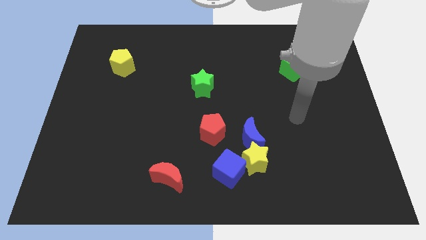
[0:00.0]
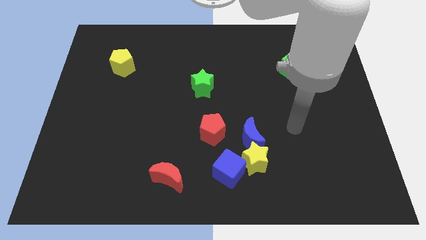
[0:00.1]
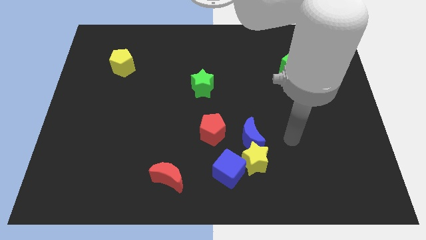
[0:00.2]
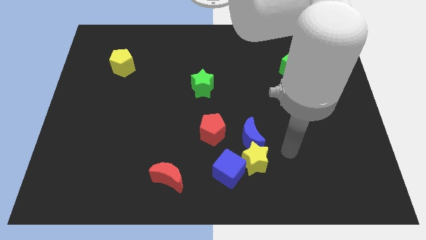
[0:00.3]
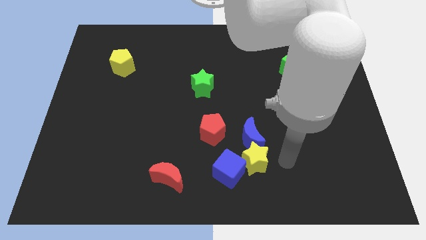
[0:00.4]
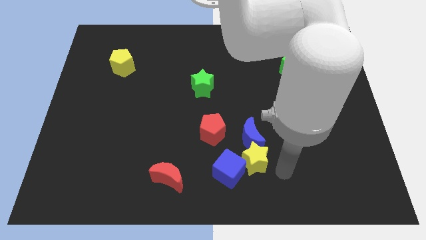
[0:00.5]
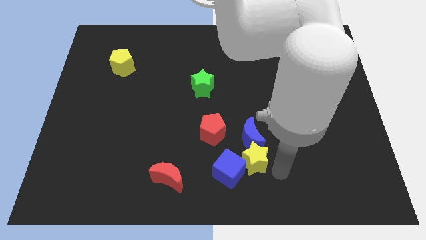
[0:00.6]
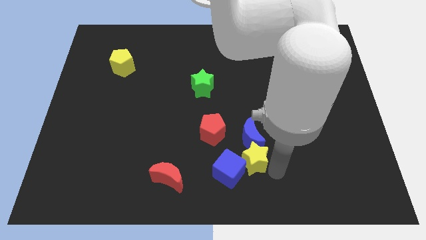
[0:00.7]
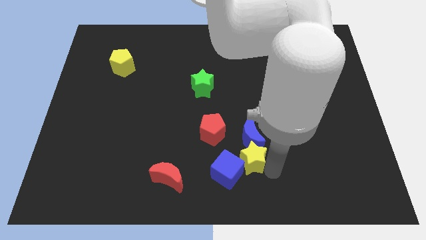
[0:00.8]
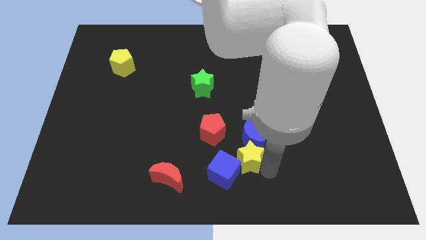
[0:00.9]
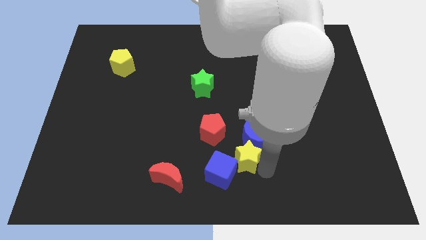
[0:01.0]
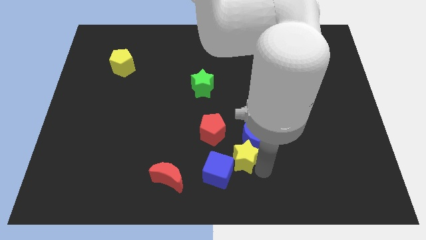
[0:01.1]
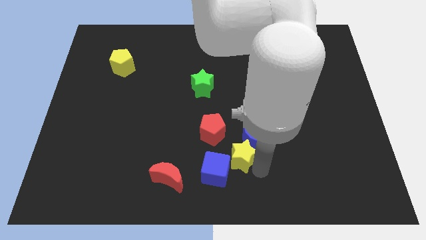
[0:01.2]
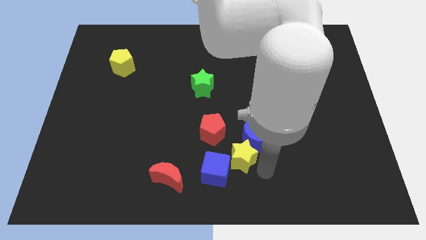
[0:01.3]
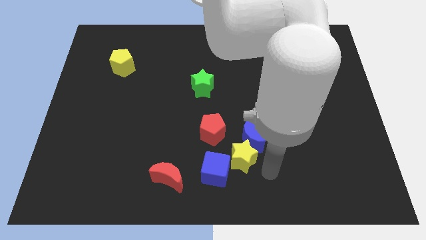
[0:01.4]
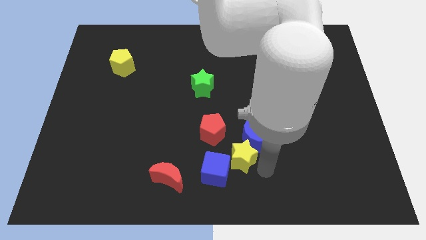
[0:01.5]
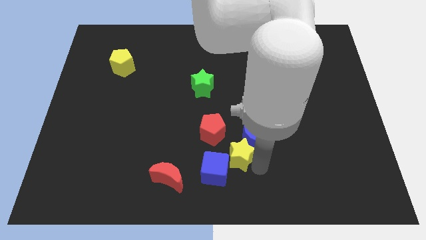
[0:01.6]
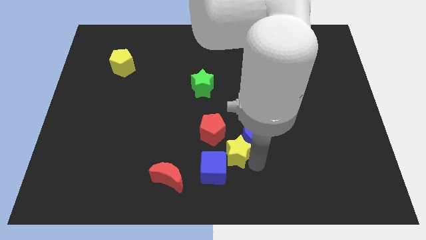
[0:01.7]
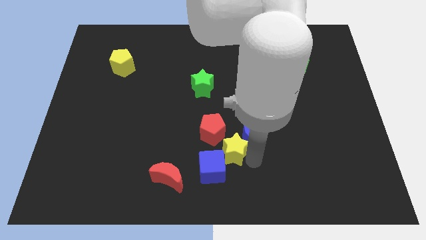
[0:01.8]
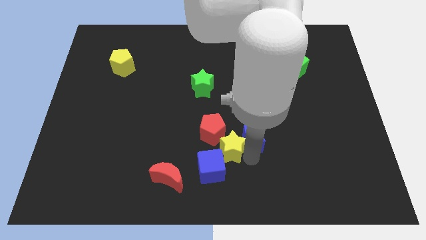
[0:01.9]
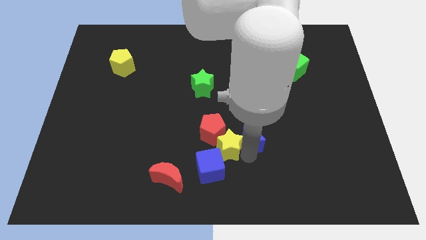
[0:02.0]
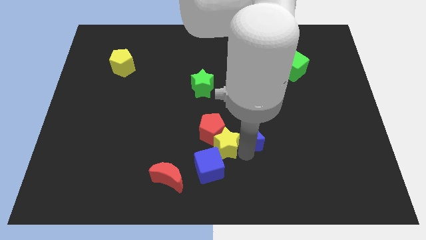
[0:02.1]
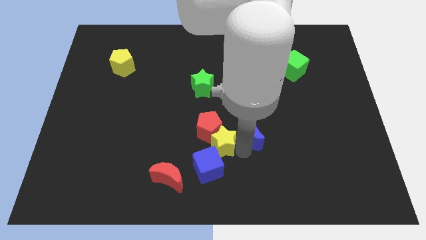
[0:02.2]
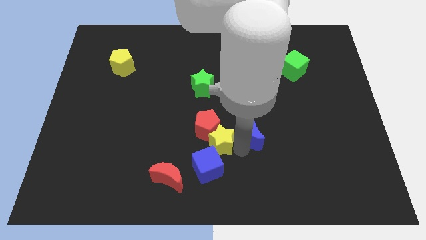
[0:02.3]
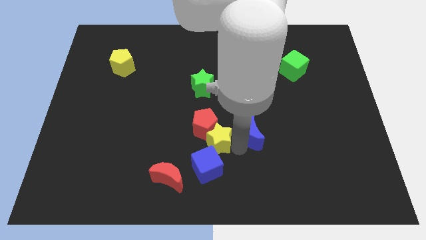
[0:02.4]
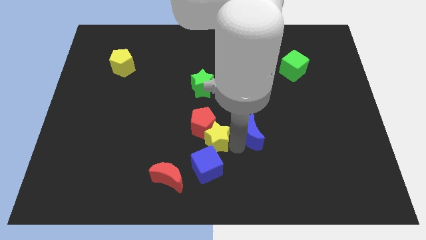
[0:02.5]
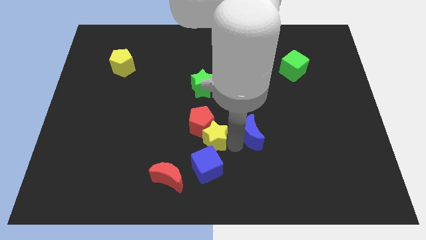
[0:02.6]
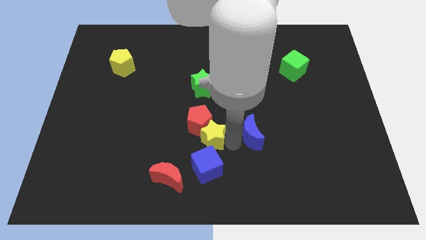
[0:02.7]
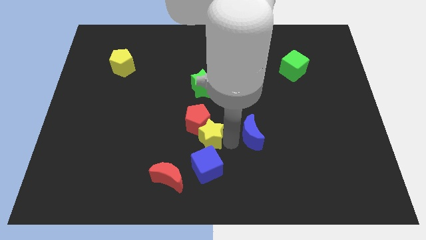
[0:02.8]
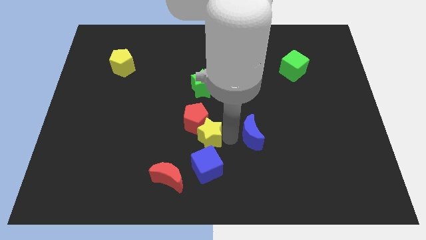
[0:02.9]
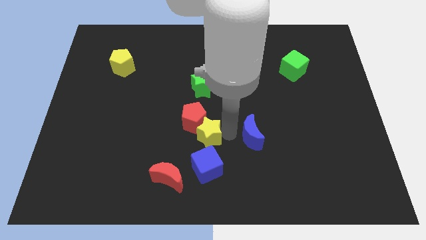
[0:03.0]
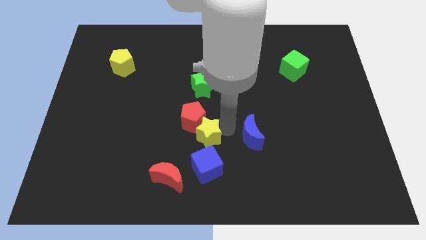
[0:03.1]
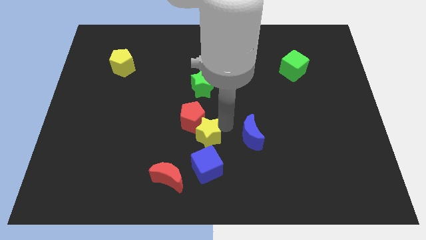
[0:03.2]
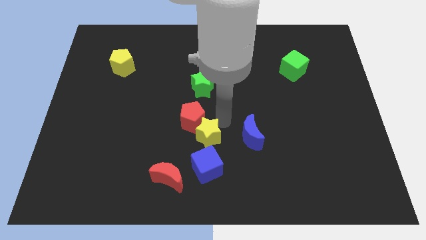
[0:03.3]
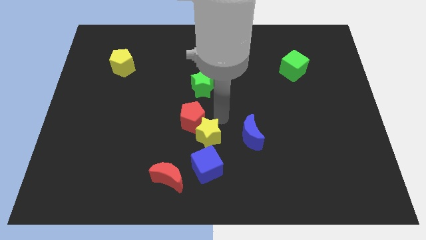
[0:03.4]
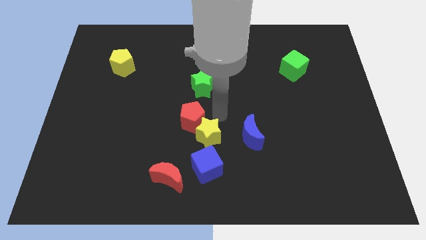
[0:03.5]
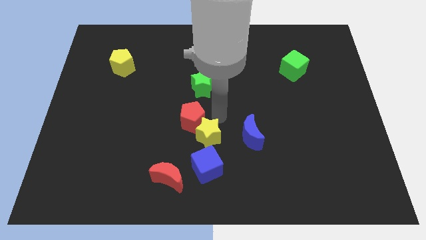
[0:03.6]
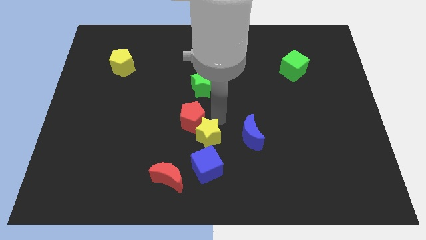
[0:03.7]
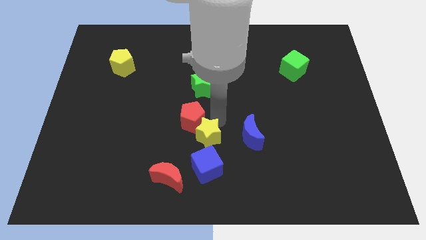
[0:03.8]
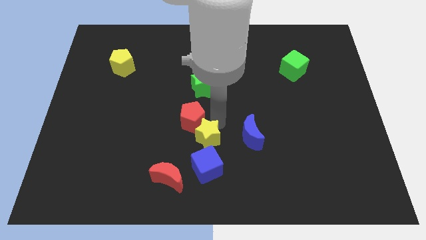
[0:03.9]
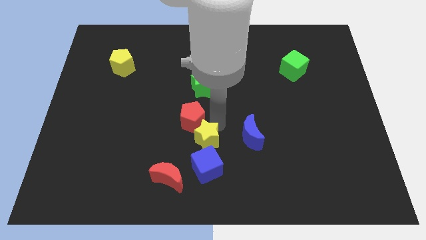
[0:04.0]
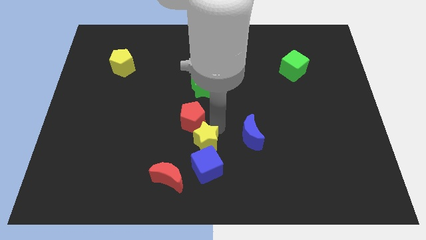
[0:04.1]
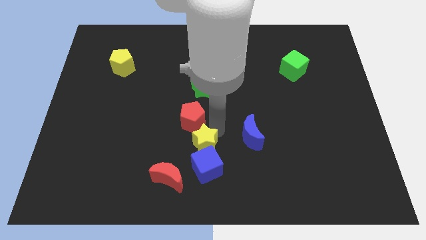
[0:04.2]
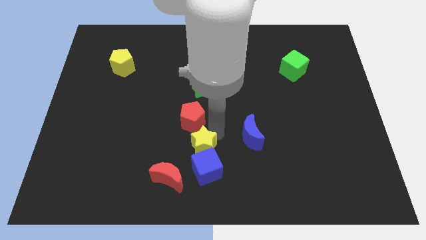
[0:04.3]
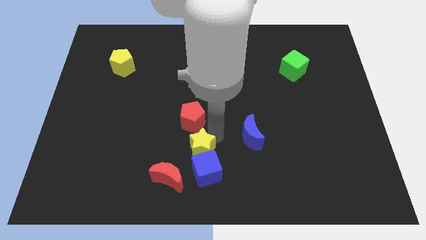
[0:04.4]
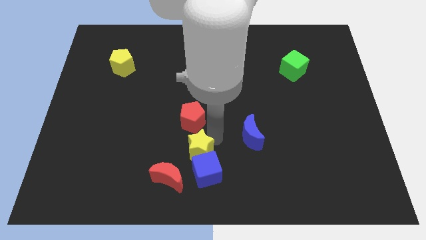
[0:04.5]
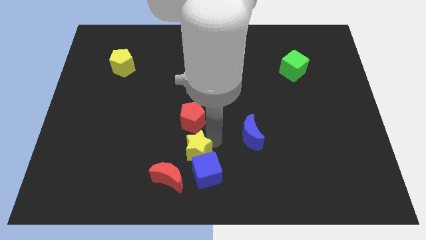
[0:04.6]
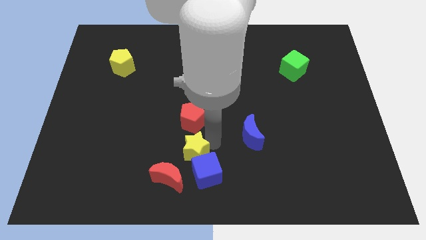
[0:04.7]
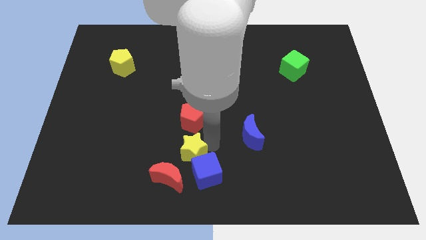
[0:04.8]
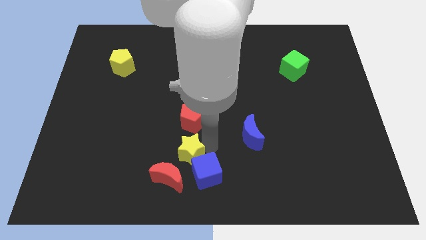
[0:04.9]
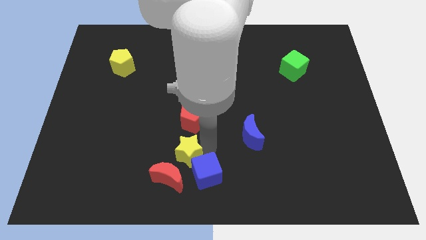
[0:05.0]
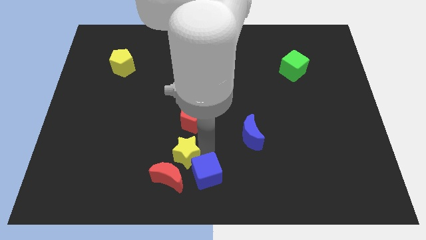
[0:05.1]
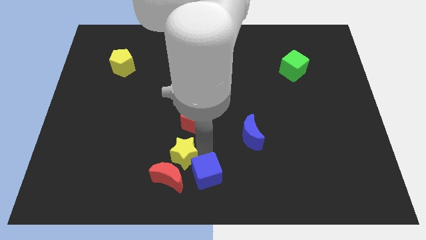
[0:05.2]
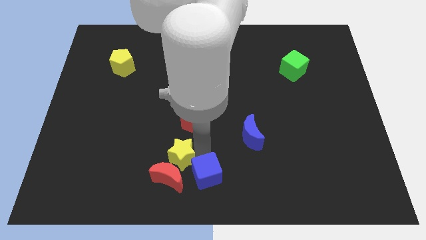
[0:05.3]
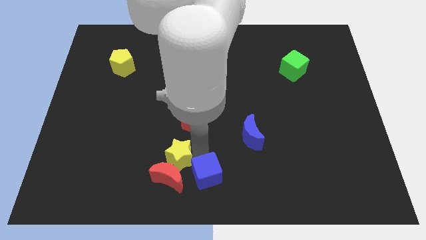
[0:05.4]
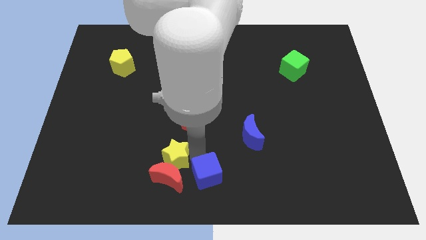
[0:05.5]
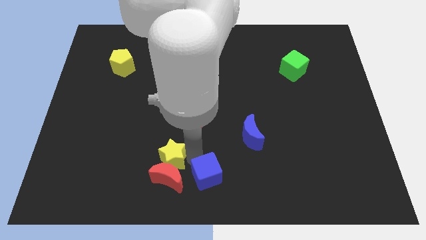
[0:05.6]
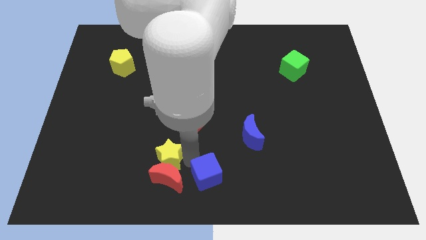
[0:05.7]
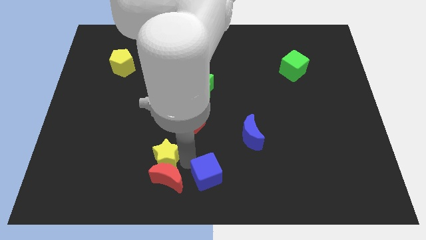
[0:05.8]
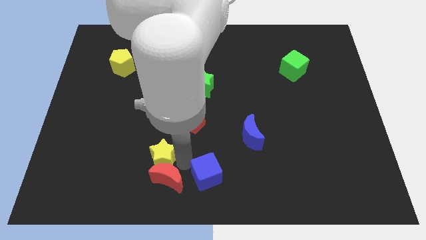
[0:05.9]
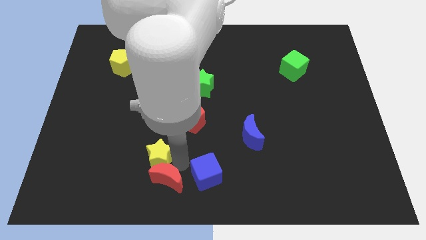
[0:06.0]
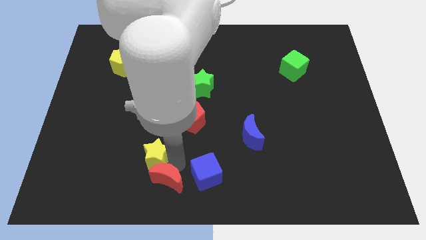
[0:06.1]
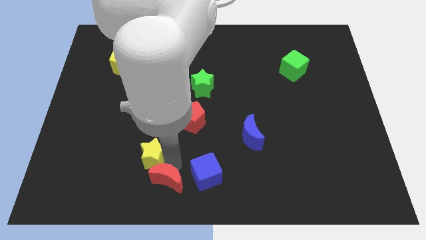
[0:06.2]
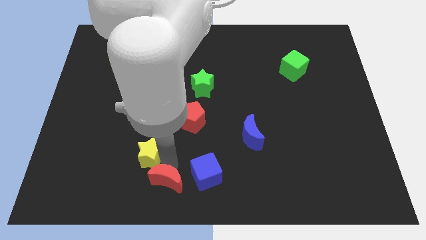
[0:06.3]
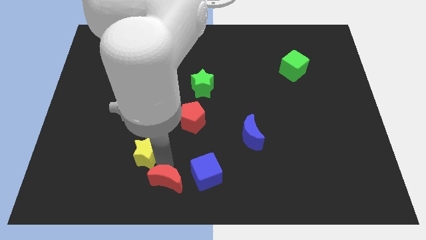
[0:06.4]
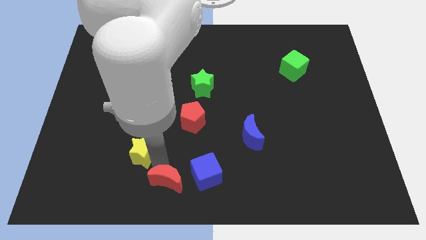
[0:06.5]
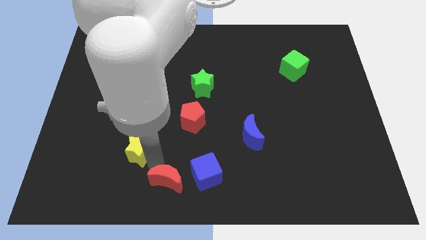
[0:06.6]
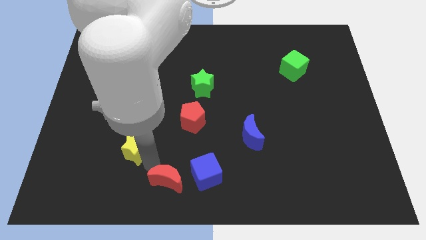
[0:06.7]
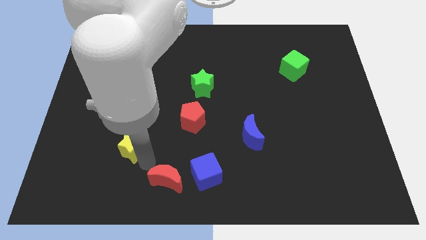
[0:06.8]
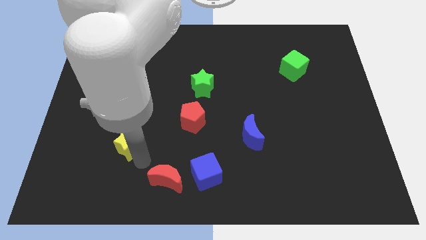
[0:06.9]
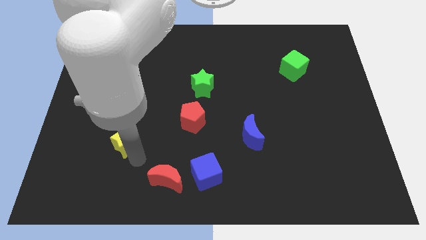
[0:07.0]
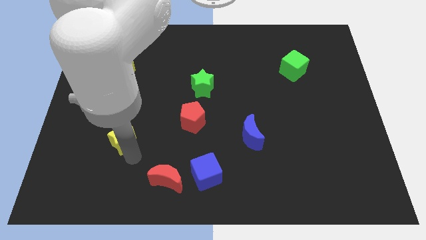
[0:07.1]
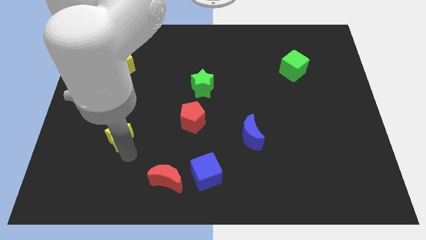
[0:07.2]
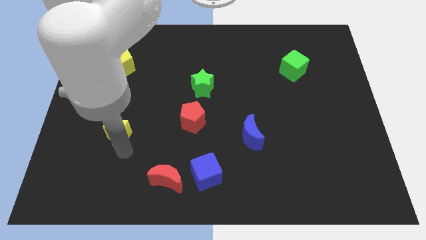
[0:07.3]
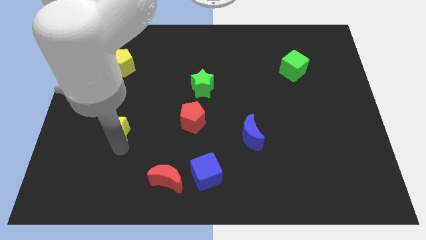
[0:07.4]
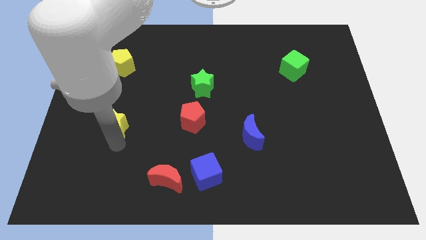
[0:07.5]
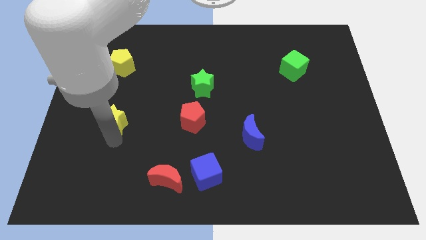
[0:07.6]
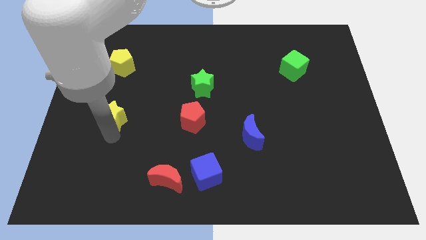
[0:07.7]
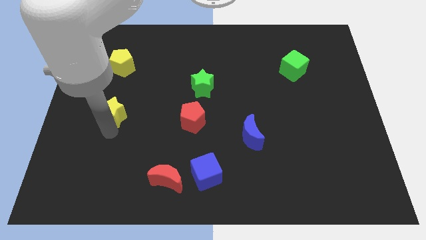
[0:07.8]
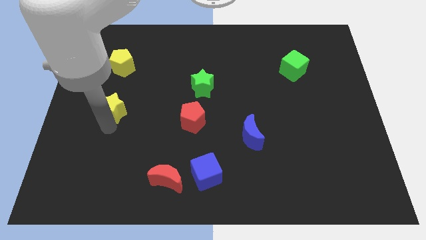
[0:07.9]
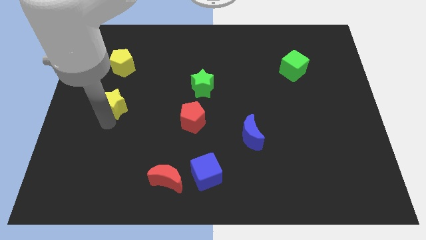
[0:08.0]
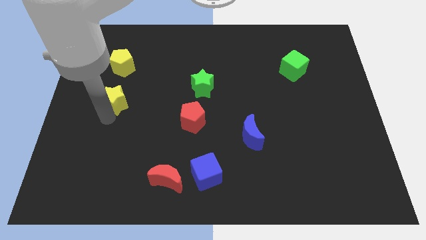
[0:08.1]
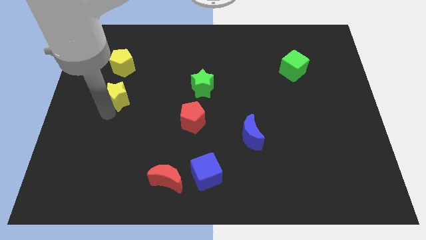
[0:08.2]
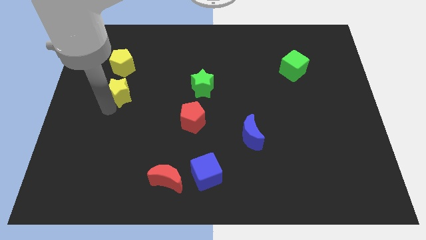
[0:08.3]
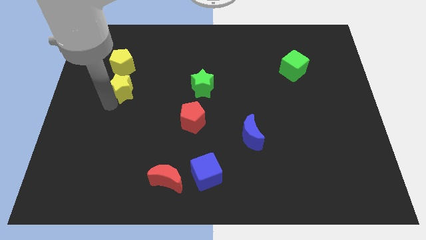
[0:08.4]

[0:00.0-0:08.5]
push the yellow star to the bottom right of the yellow pentagon
